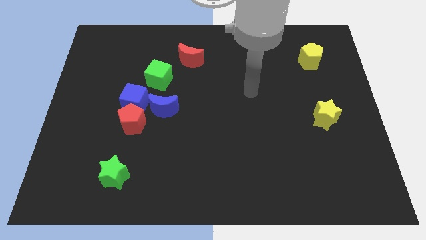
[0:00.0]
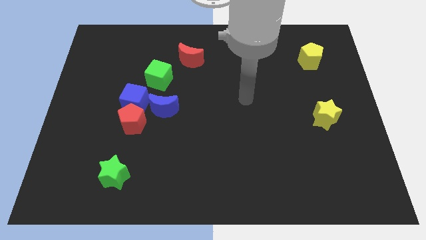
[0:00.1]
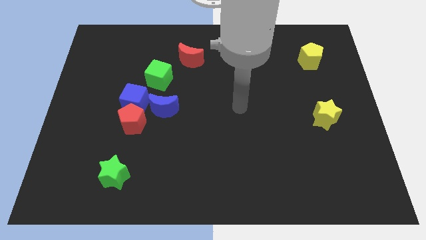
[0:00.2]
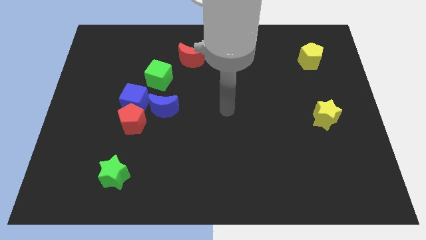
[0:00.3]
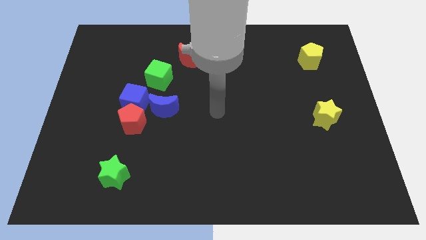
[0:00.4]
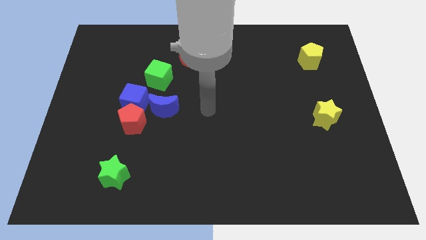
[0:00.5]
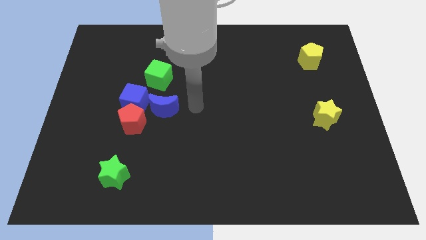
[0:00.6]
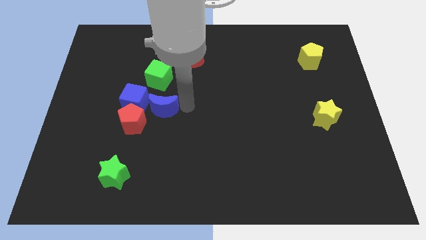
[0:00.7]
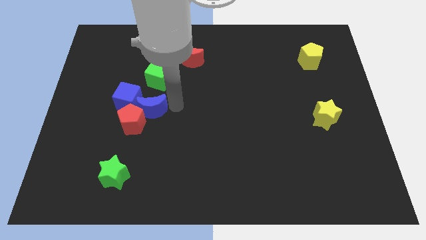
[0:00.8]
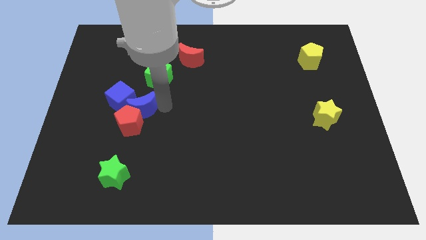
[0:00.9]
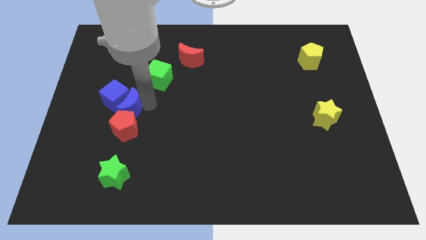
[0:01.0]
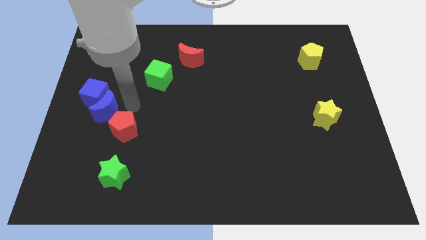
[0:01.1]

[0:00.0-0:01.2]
move the red pentagon away from the blue cube and blue moon

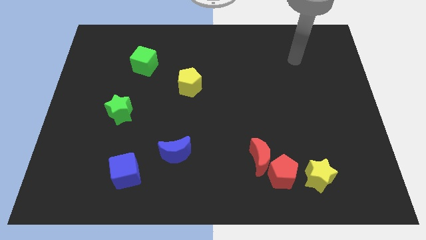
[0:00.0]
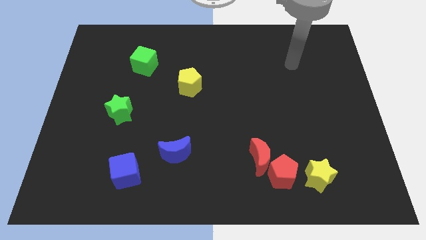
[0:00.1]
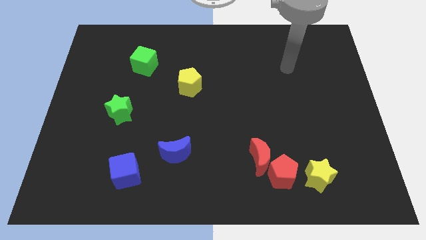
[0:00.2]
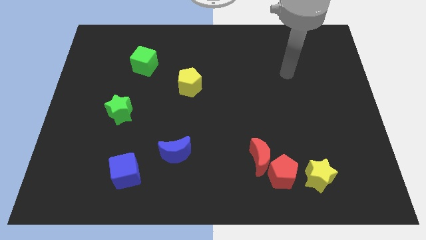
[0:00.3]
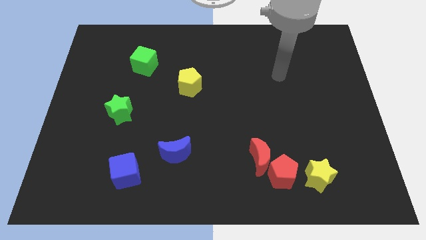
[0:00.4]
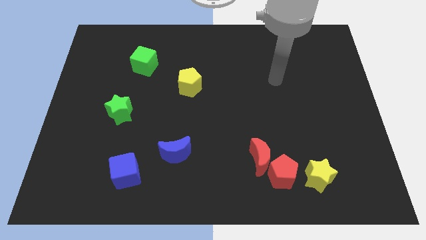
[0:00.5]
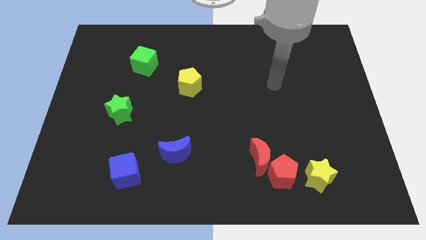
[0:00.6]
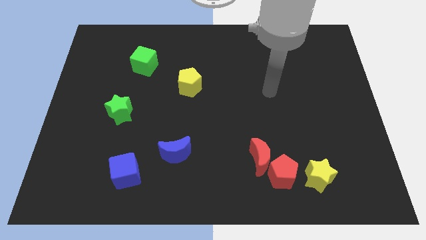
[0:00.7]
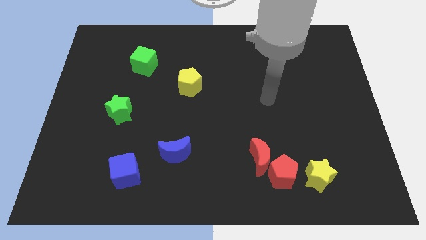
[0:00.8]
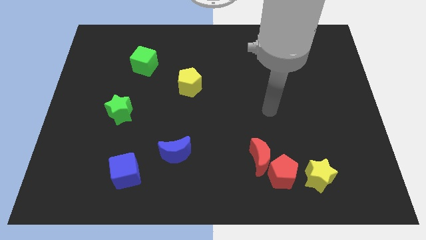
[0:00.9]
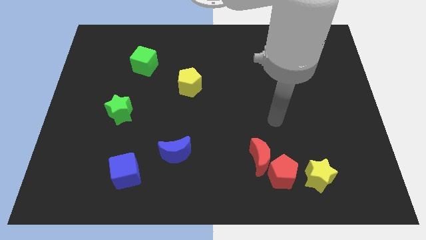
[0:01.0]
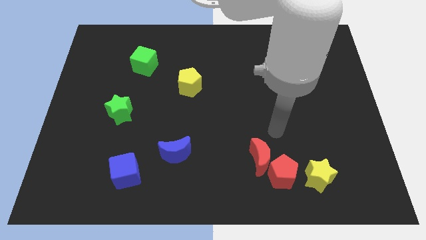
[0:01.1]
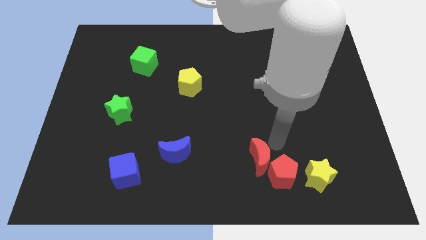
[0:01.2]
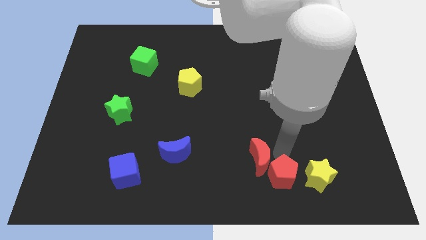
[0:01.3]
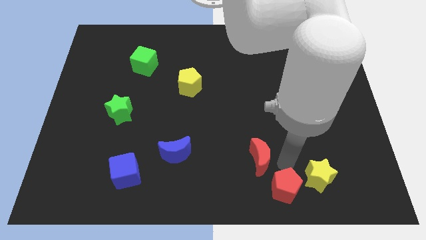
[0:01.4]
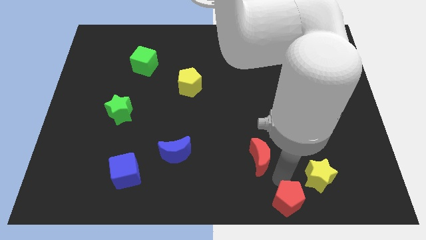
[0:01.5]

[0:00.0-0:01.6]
move the red moon away from the red pentagon

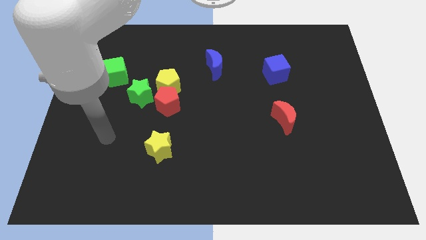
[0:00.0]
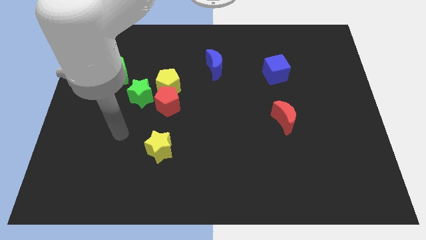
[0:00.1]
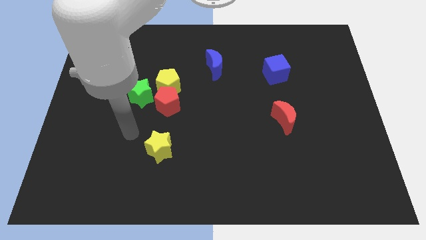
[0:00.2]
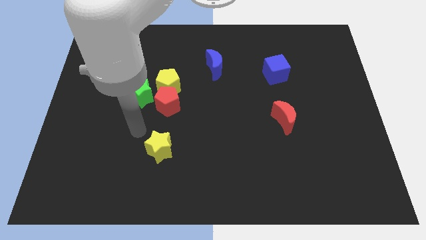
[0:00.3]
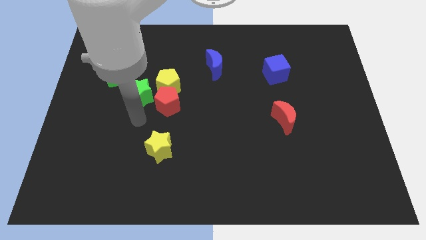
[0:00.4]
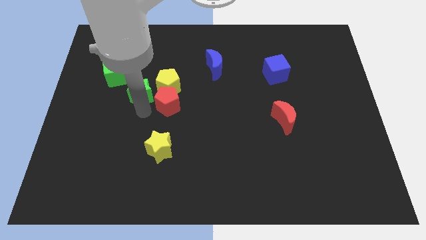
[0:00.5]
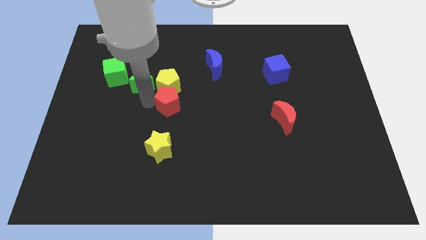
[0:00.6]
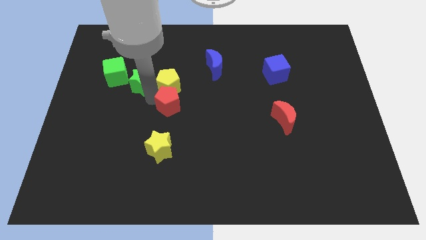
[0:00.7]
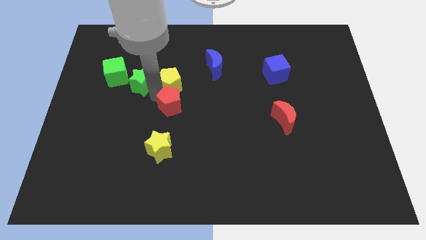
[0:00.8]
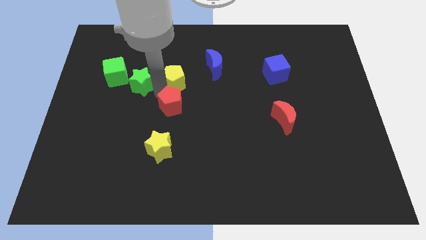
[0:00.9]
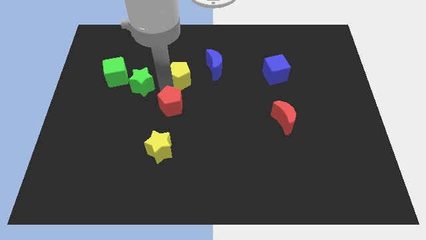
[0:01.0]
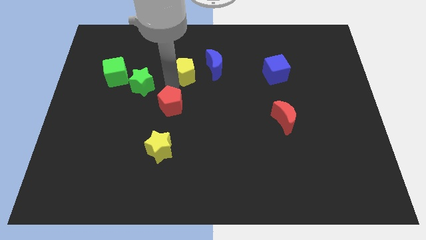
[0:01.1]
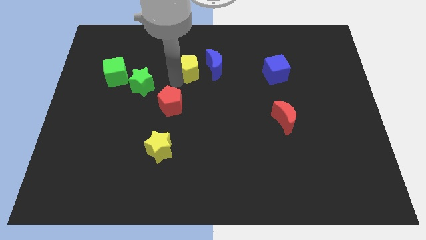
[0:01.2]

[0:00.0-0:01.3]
pull the yellow pentagon apart from the red pentagon and green star

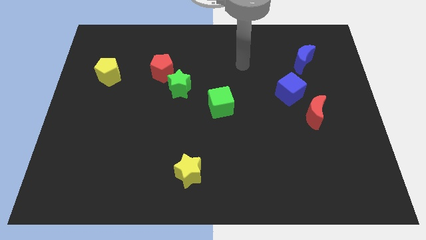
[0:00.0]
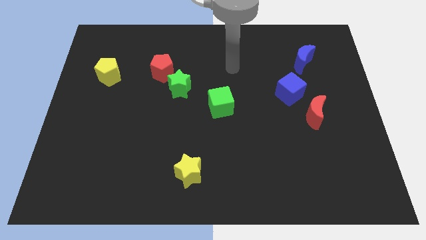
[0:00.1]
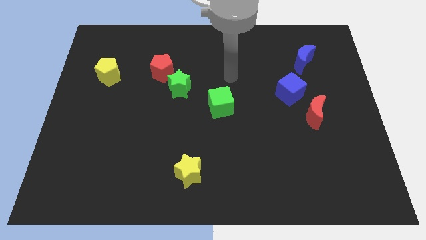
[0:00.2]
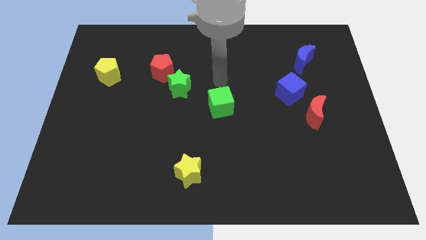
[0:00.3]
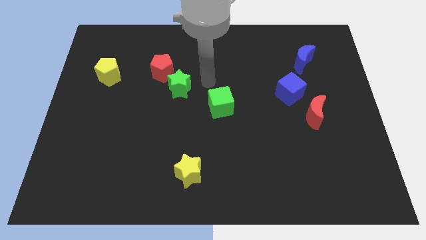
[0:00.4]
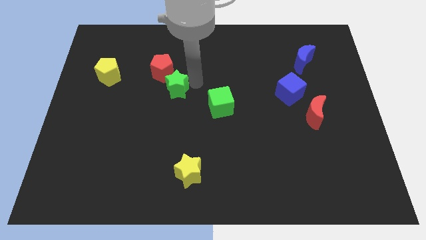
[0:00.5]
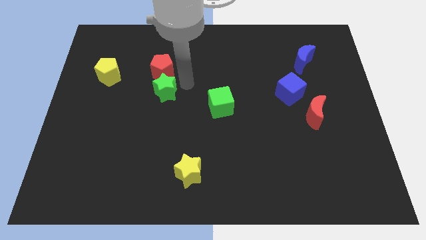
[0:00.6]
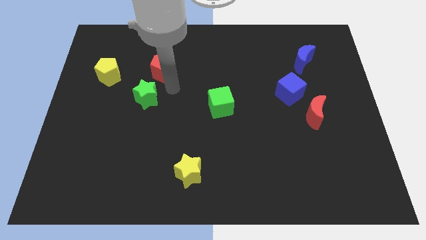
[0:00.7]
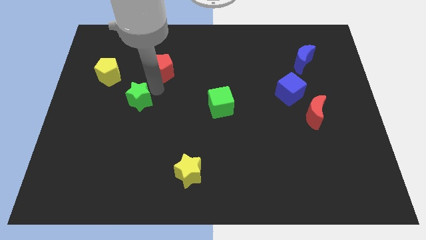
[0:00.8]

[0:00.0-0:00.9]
separate the red pentagon from the green star

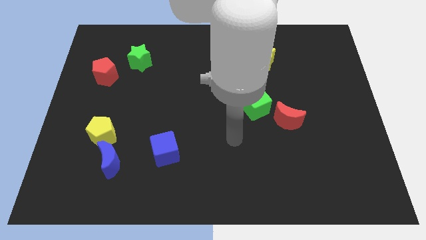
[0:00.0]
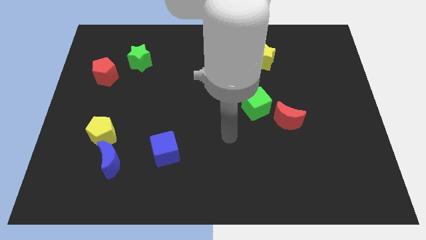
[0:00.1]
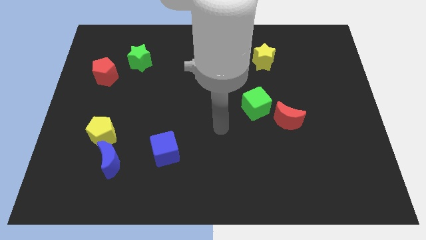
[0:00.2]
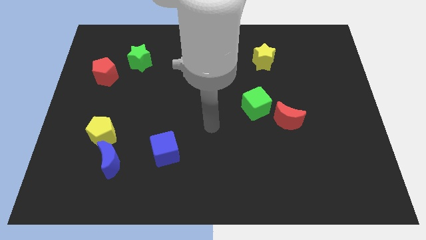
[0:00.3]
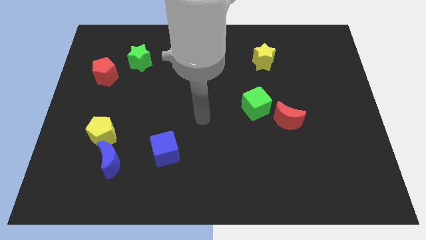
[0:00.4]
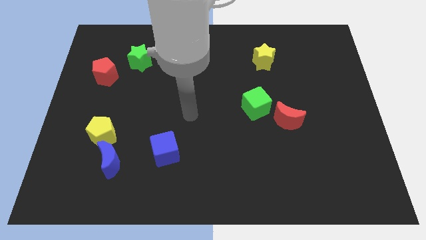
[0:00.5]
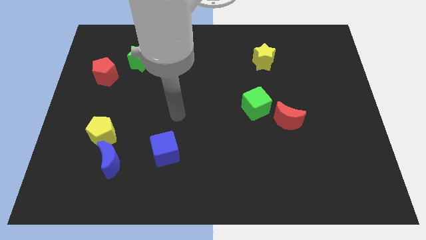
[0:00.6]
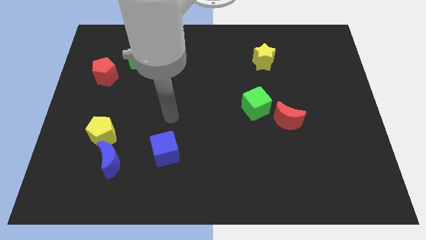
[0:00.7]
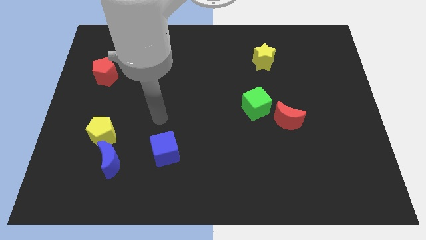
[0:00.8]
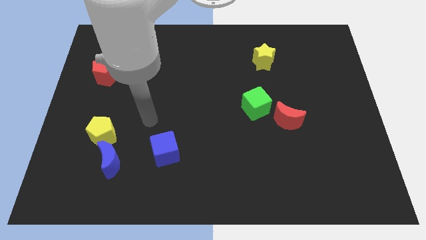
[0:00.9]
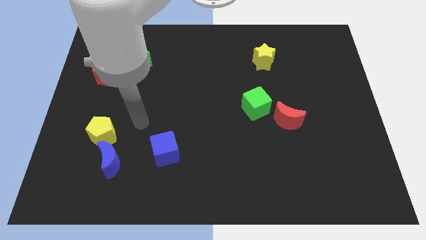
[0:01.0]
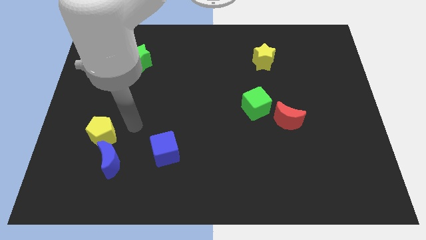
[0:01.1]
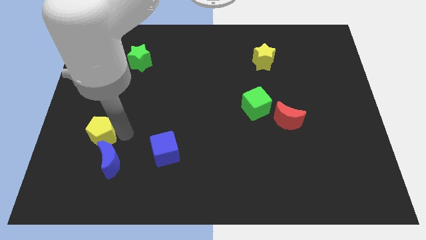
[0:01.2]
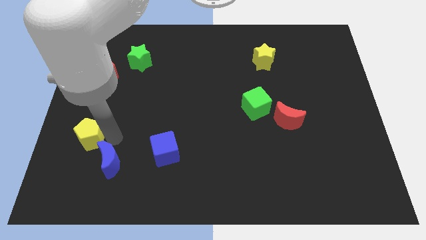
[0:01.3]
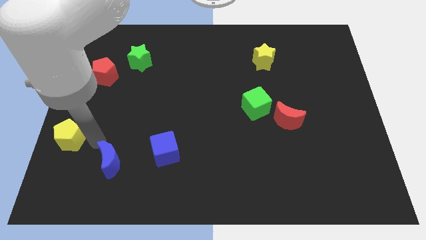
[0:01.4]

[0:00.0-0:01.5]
separate the blue moon from the yellow pentagon

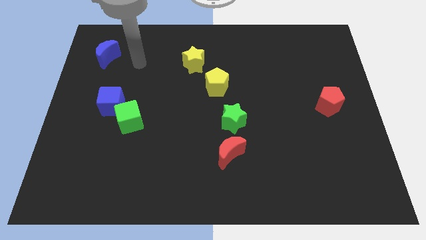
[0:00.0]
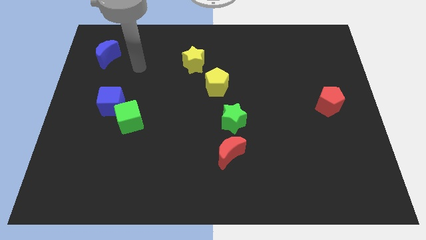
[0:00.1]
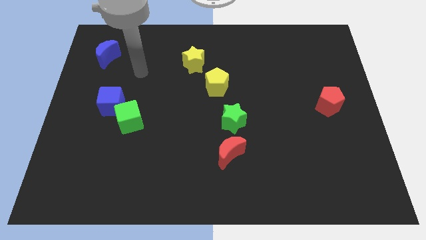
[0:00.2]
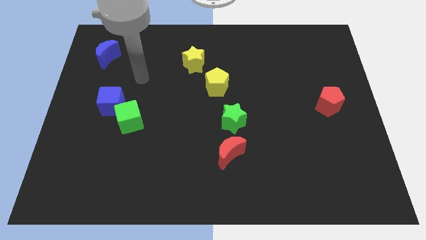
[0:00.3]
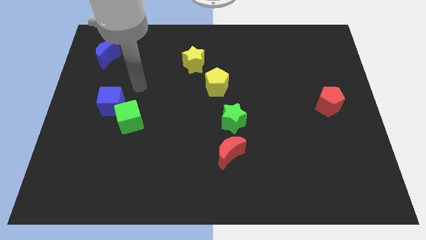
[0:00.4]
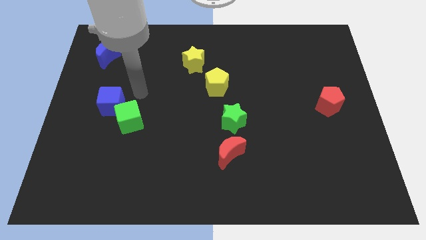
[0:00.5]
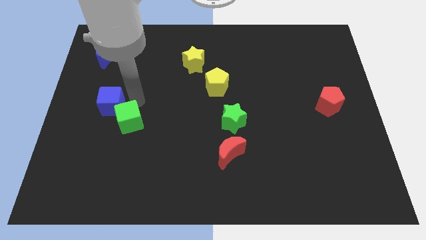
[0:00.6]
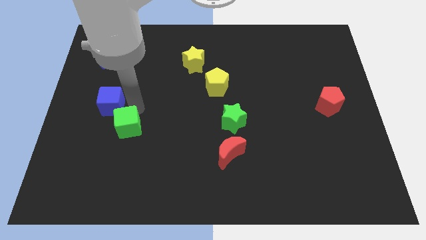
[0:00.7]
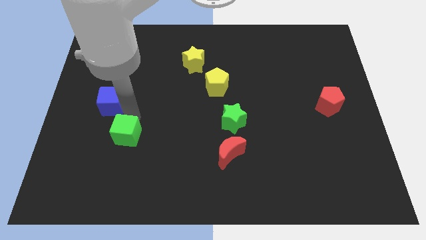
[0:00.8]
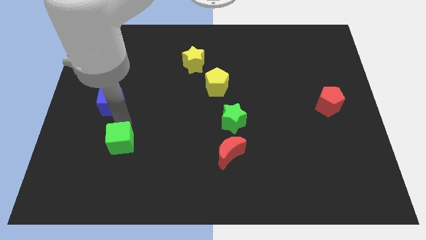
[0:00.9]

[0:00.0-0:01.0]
move the blue cube away from the green cube

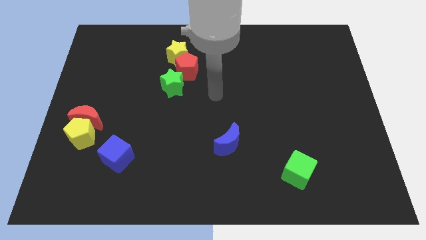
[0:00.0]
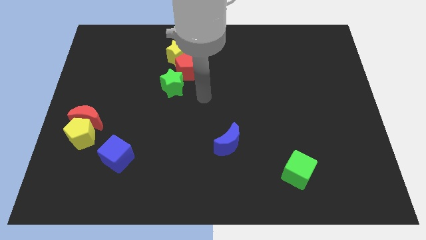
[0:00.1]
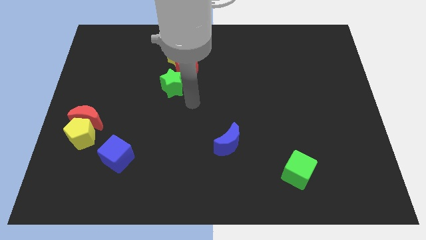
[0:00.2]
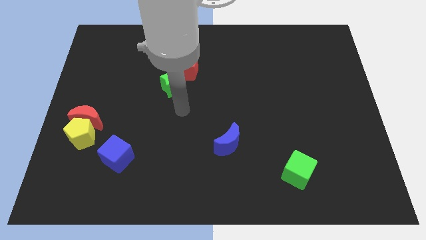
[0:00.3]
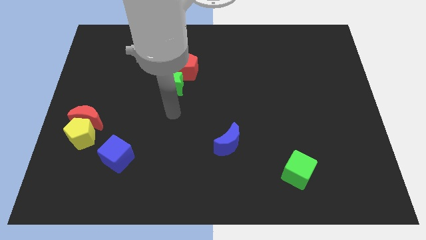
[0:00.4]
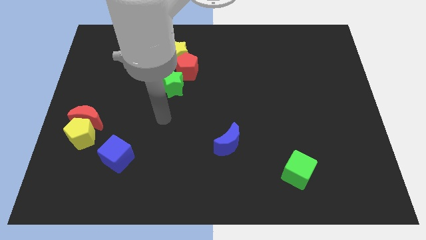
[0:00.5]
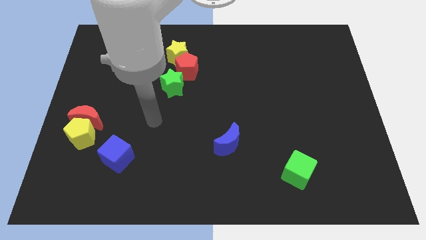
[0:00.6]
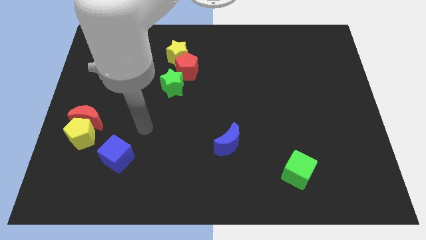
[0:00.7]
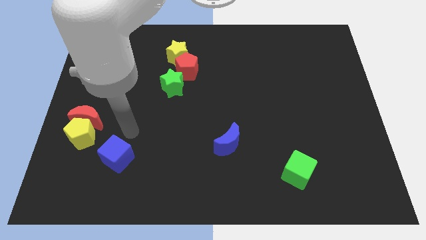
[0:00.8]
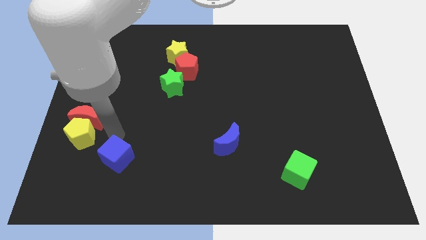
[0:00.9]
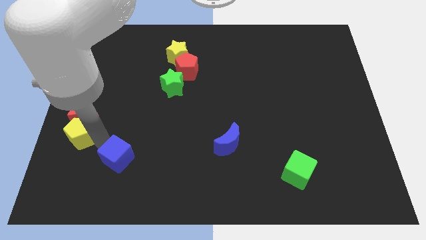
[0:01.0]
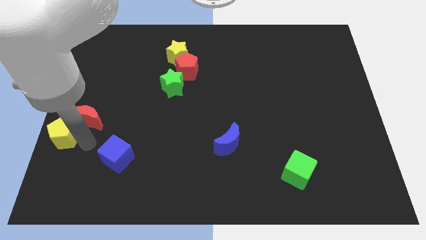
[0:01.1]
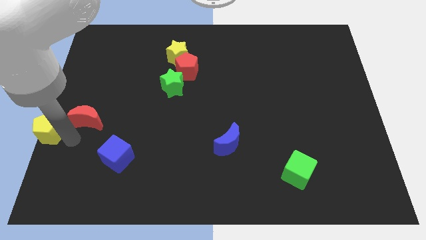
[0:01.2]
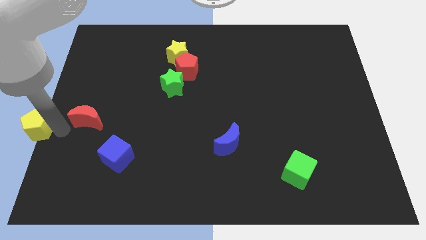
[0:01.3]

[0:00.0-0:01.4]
pull the red moon apart from the yellow pentagon

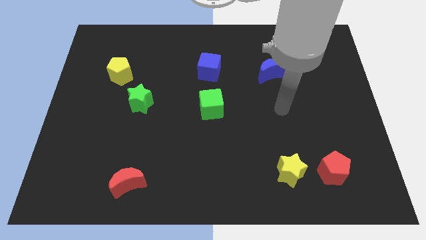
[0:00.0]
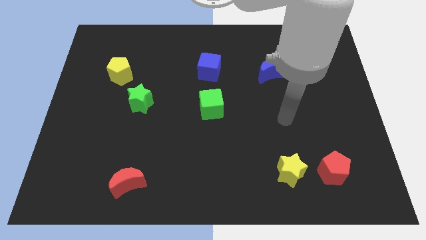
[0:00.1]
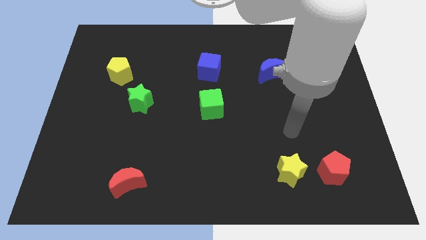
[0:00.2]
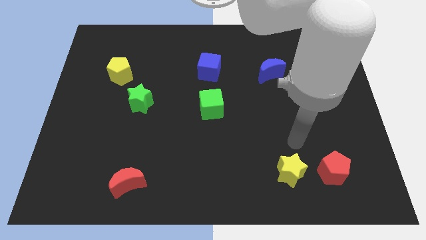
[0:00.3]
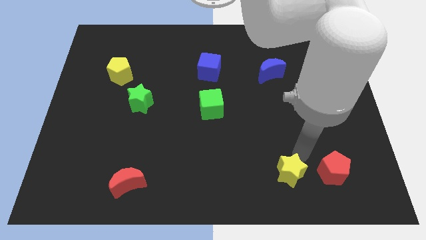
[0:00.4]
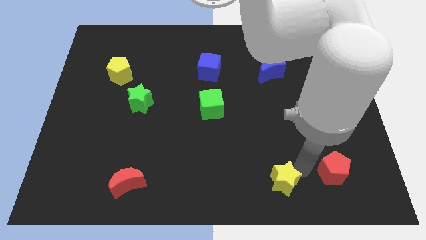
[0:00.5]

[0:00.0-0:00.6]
separate the red pentagon from the yellow star
